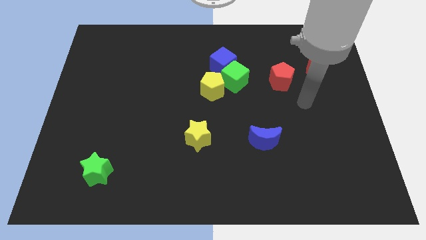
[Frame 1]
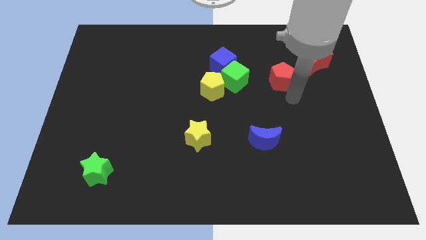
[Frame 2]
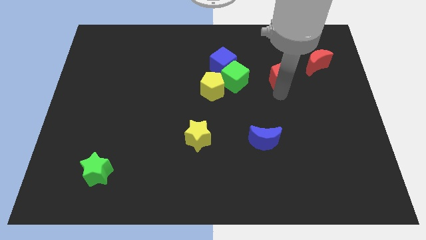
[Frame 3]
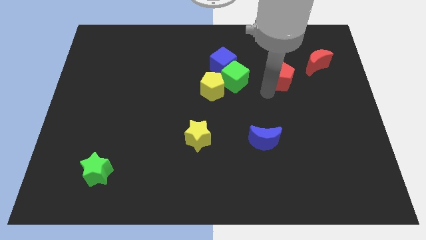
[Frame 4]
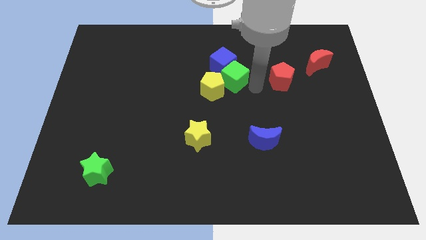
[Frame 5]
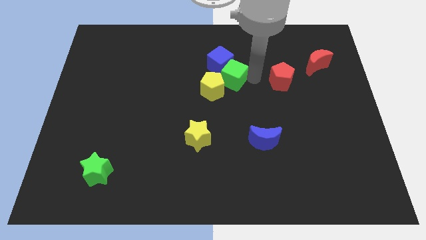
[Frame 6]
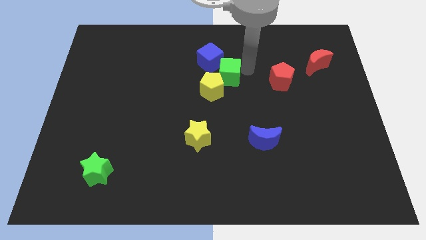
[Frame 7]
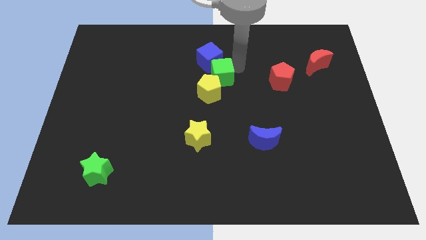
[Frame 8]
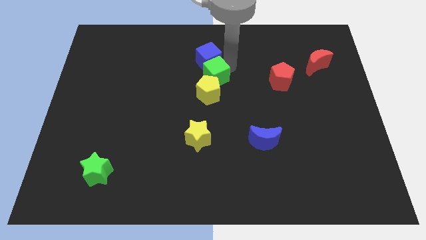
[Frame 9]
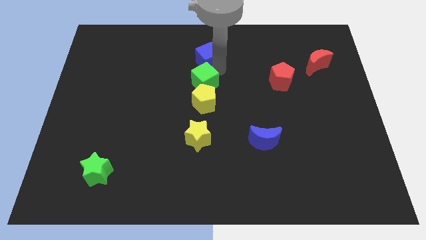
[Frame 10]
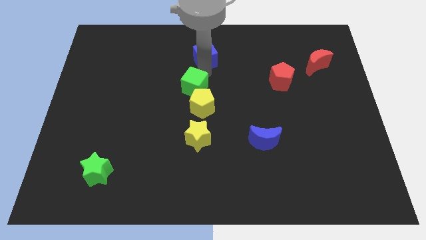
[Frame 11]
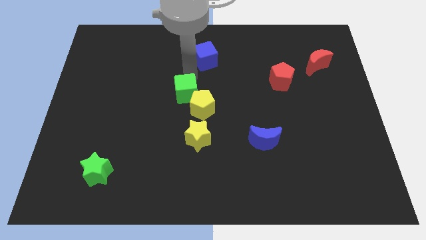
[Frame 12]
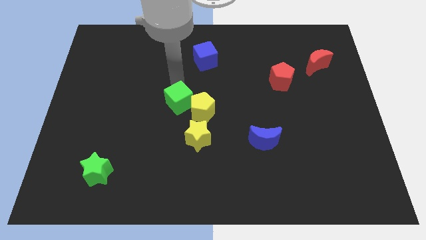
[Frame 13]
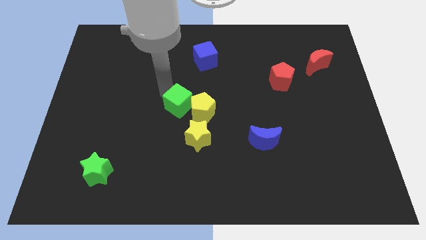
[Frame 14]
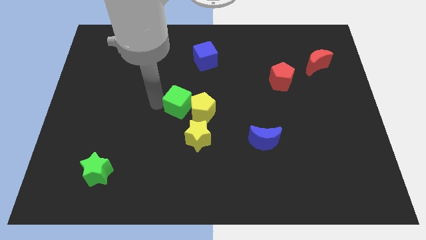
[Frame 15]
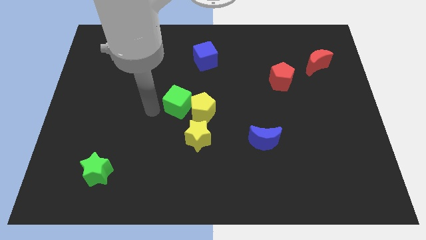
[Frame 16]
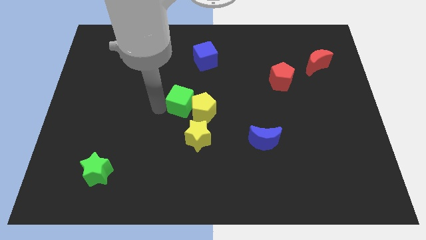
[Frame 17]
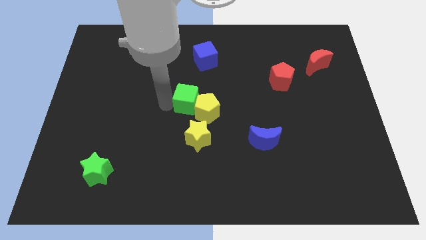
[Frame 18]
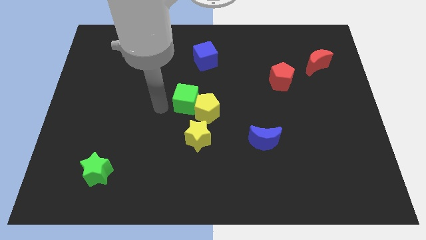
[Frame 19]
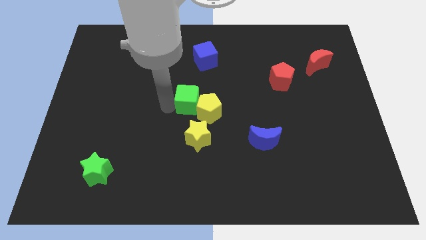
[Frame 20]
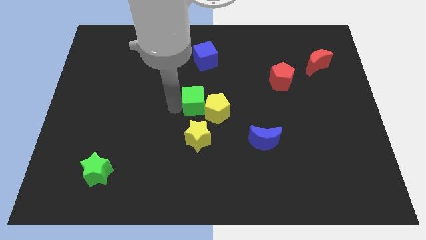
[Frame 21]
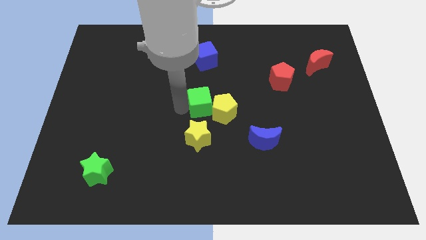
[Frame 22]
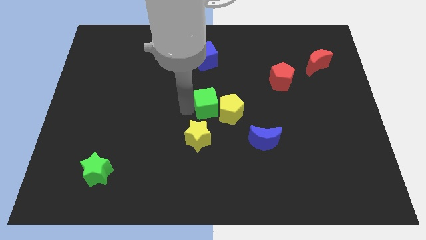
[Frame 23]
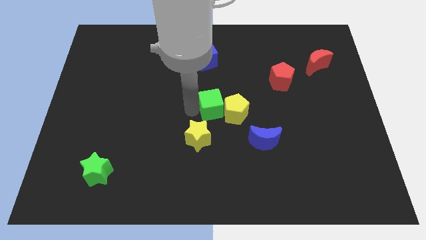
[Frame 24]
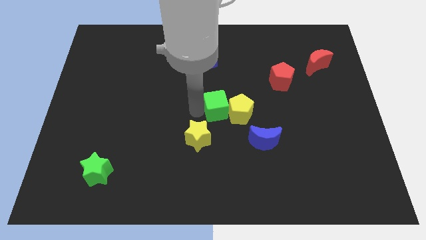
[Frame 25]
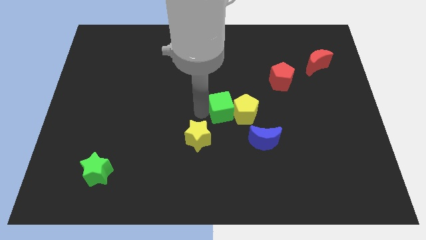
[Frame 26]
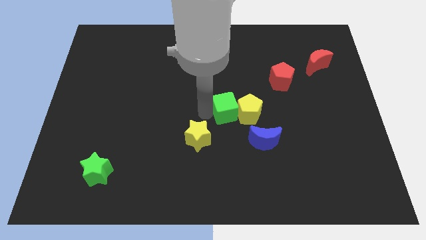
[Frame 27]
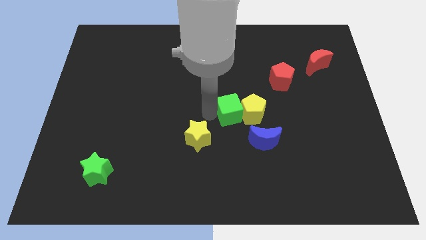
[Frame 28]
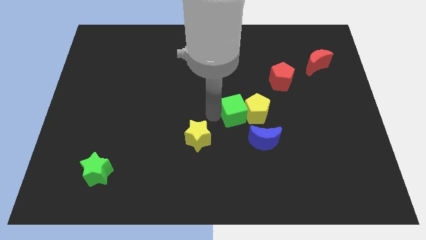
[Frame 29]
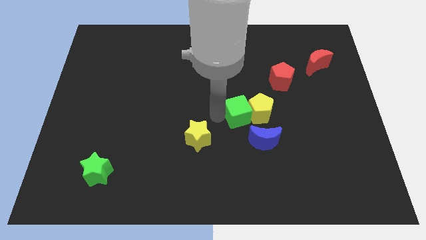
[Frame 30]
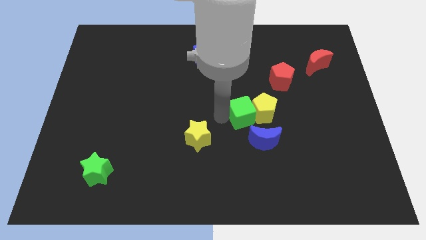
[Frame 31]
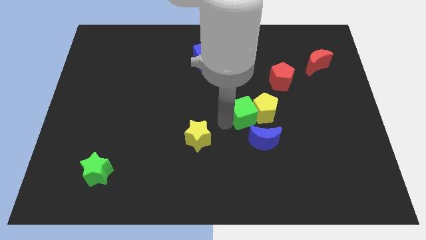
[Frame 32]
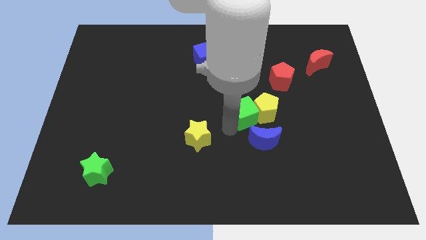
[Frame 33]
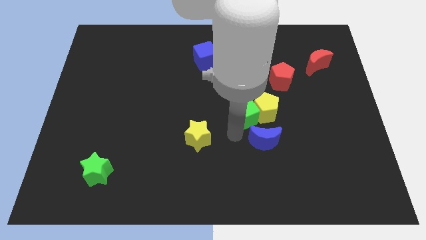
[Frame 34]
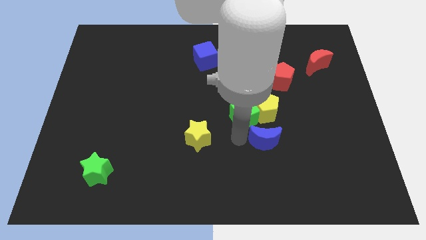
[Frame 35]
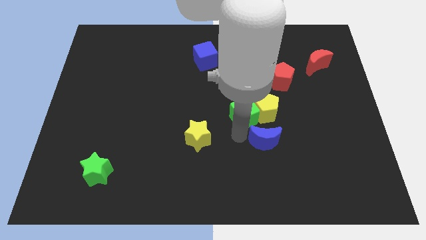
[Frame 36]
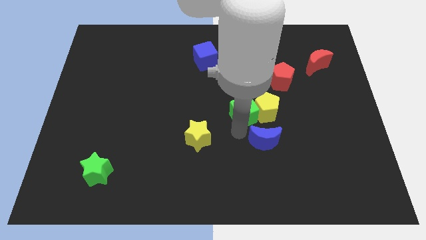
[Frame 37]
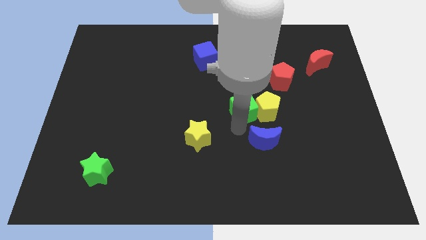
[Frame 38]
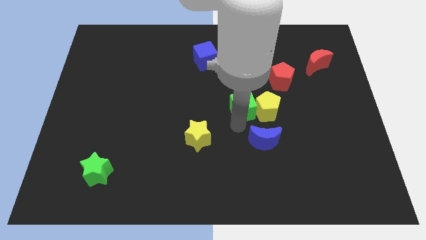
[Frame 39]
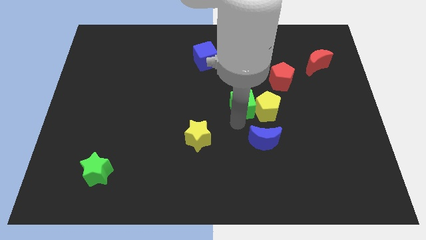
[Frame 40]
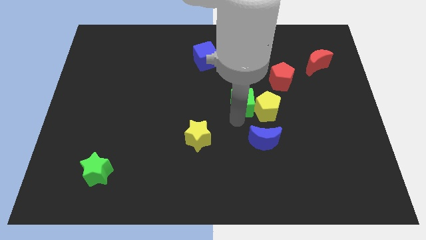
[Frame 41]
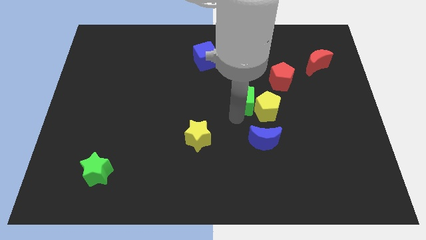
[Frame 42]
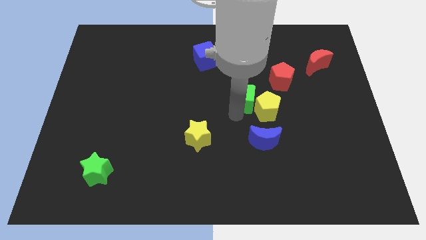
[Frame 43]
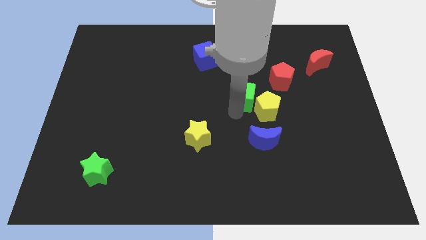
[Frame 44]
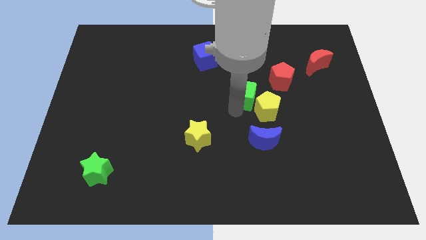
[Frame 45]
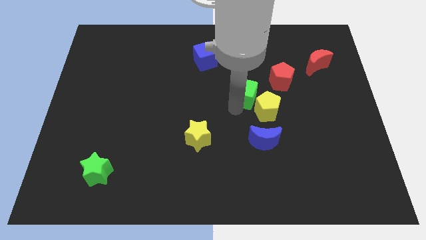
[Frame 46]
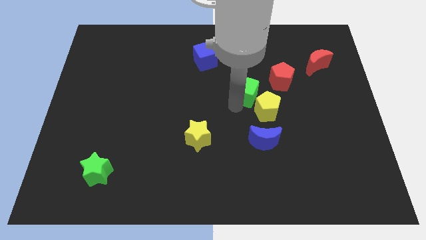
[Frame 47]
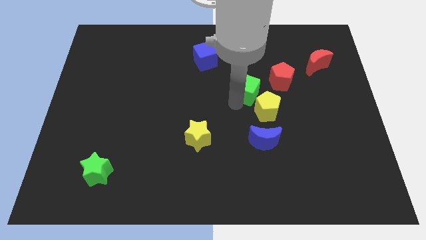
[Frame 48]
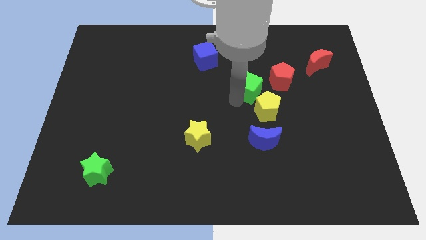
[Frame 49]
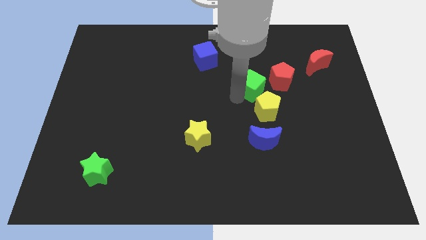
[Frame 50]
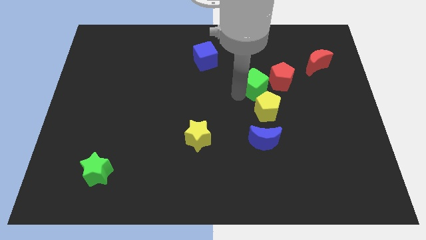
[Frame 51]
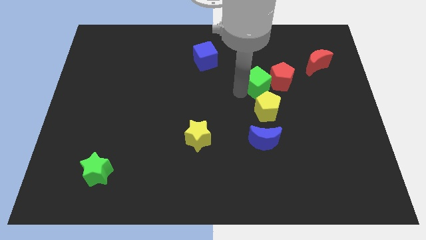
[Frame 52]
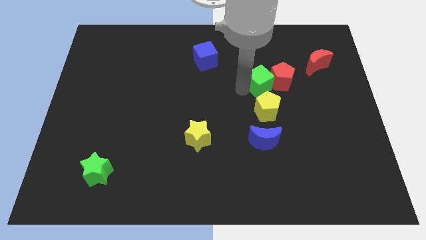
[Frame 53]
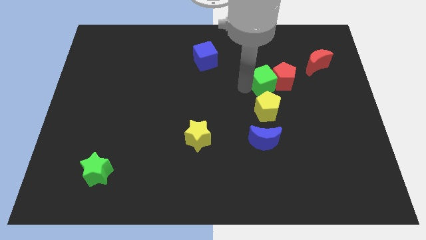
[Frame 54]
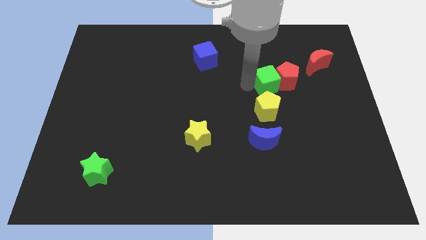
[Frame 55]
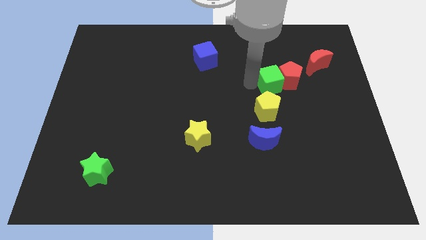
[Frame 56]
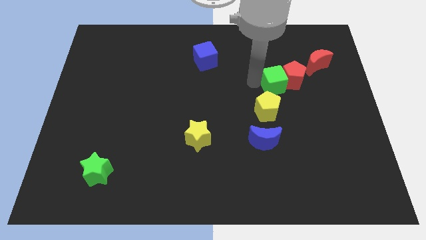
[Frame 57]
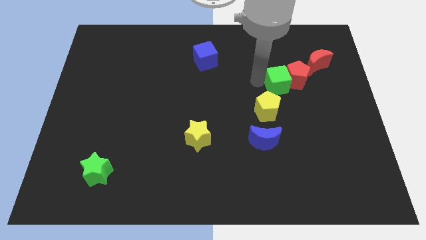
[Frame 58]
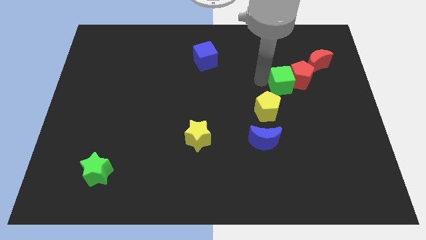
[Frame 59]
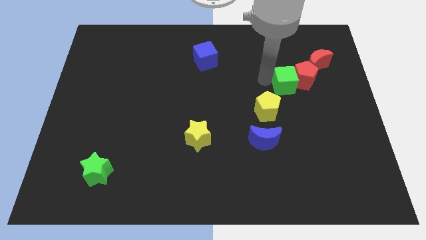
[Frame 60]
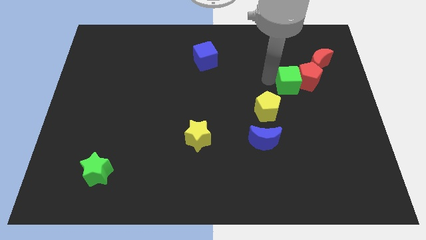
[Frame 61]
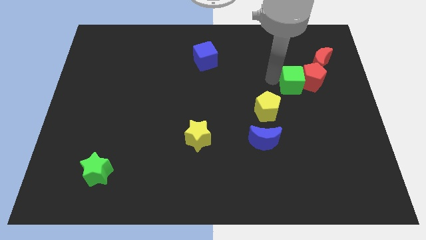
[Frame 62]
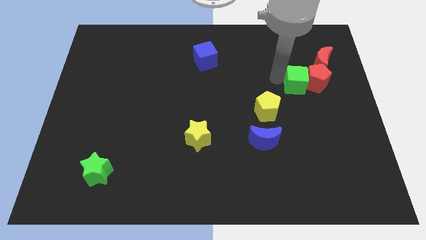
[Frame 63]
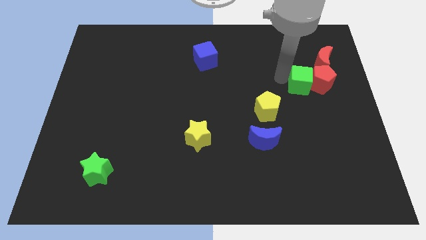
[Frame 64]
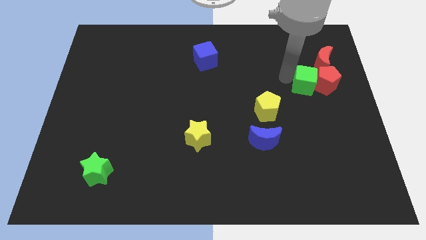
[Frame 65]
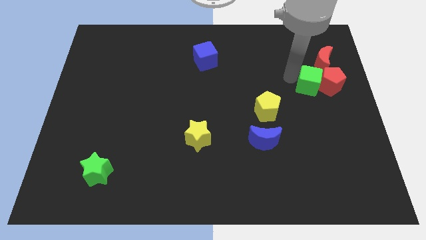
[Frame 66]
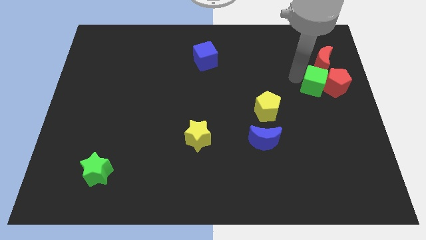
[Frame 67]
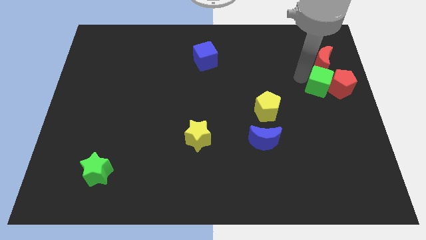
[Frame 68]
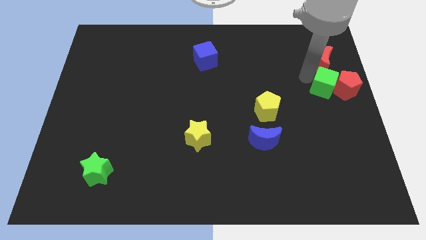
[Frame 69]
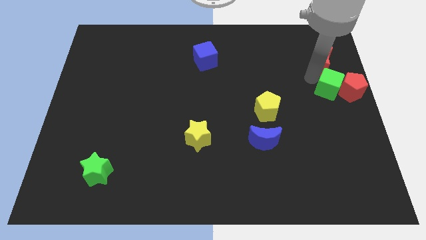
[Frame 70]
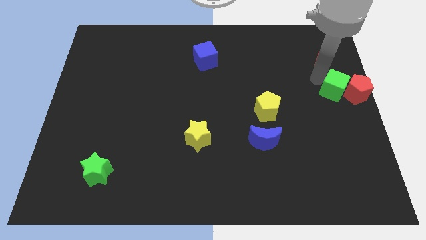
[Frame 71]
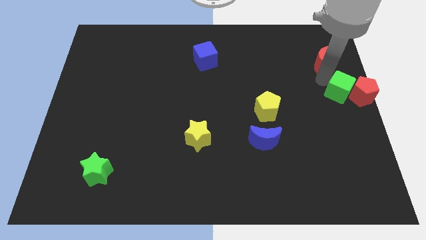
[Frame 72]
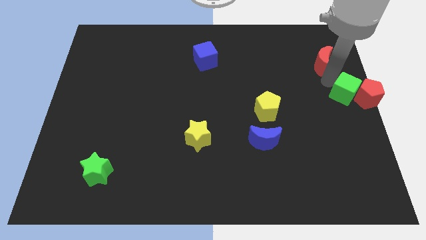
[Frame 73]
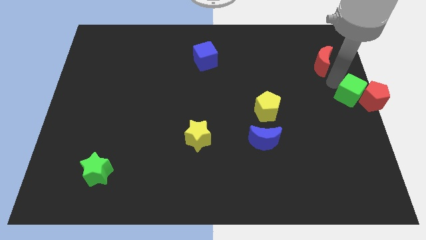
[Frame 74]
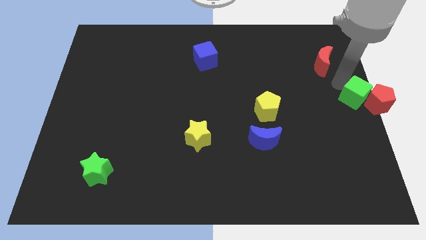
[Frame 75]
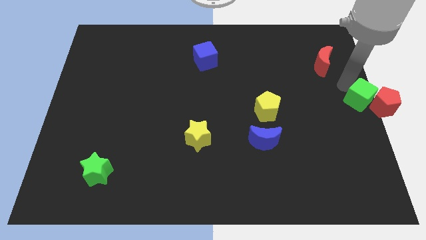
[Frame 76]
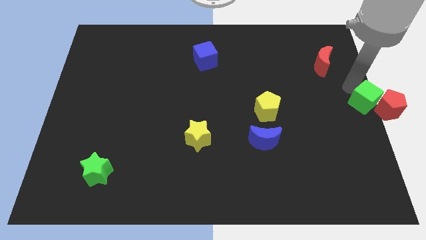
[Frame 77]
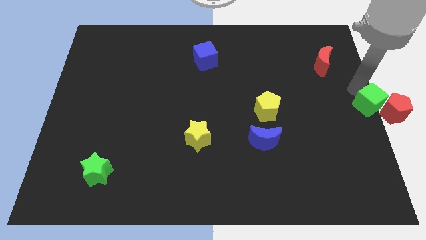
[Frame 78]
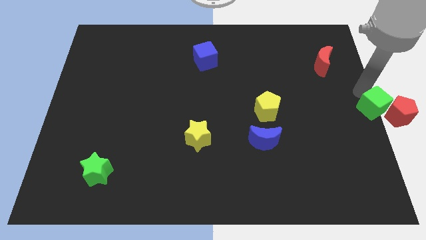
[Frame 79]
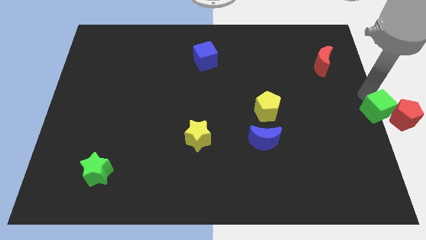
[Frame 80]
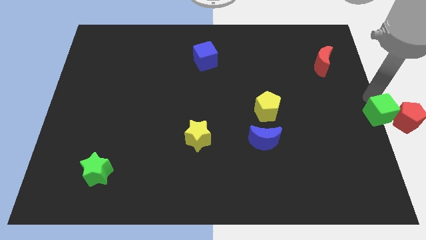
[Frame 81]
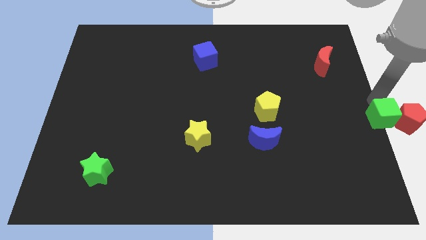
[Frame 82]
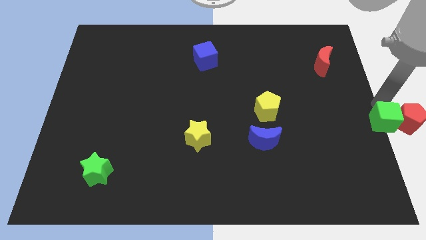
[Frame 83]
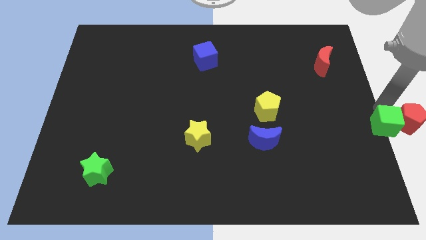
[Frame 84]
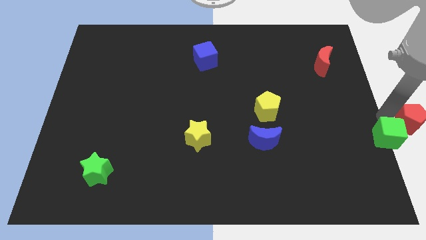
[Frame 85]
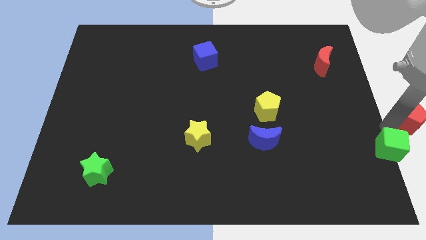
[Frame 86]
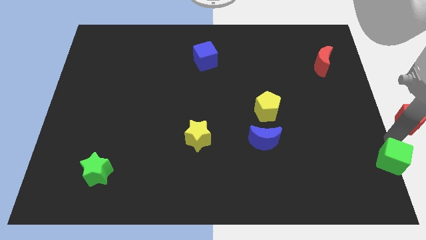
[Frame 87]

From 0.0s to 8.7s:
push the green cube to the lower right corner
